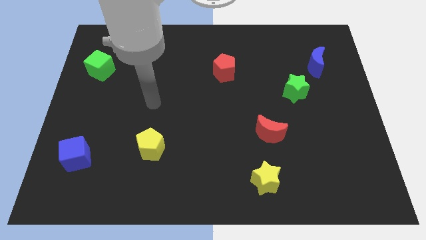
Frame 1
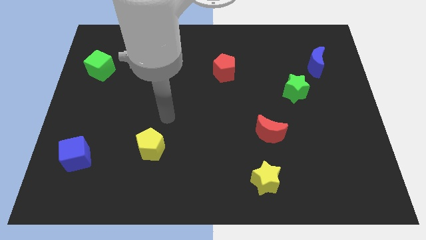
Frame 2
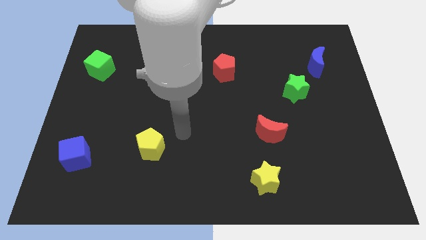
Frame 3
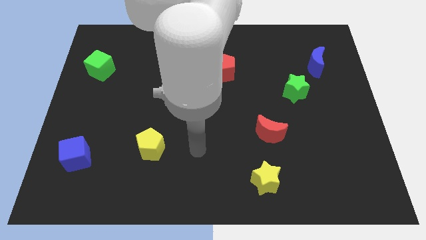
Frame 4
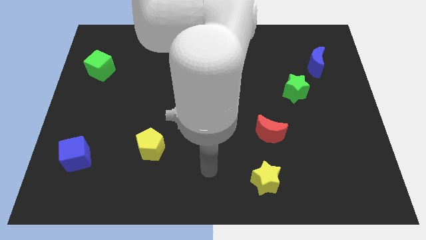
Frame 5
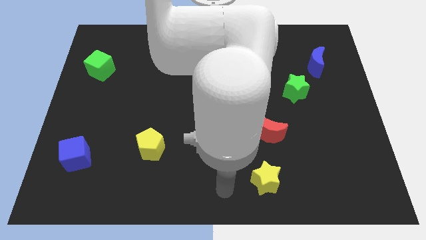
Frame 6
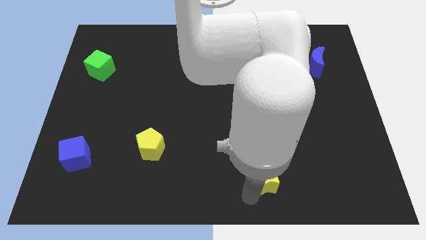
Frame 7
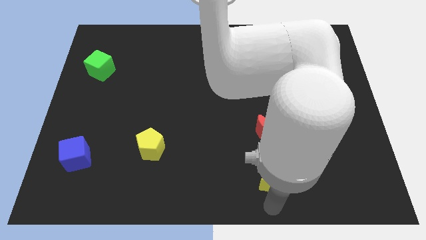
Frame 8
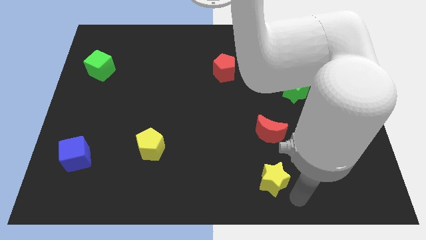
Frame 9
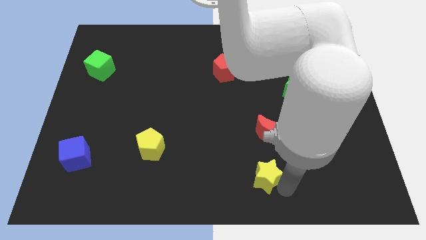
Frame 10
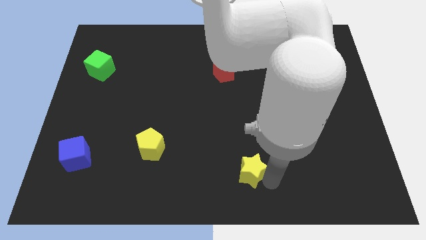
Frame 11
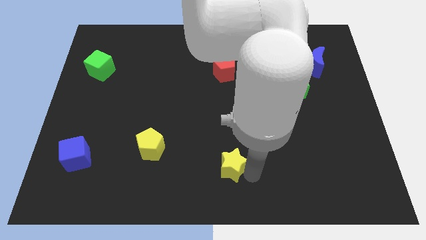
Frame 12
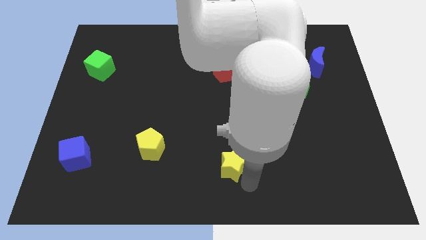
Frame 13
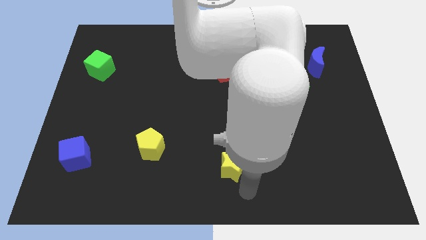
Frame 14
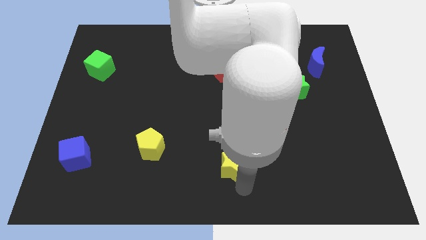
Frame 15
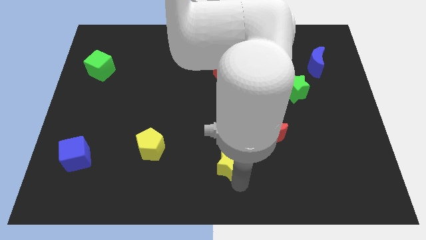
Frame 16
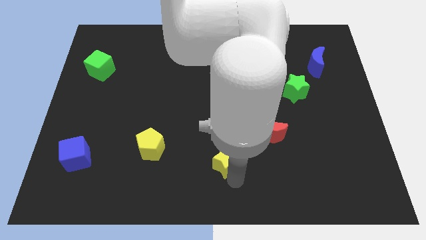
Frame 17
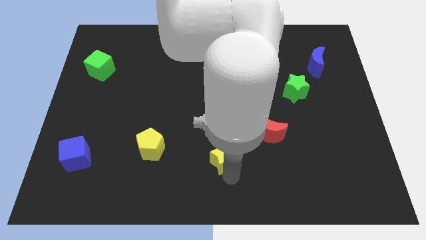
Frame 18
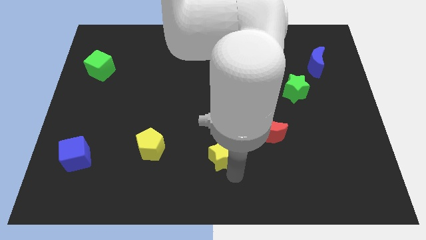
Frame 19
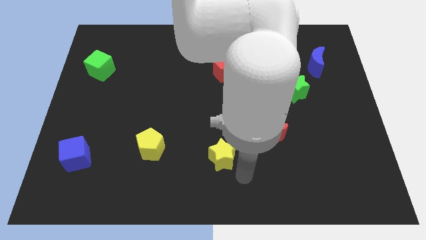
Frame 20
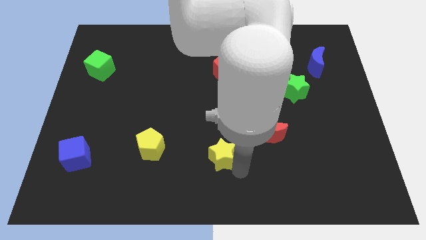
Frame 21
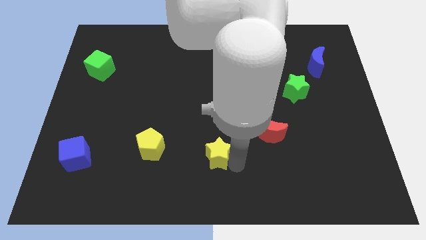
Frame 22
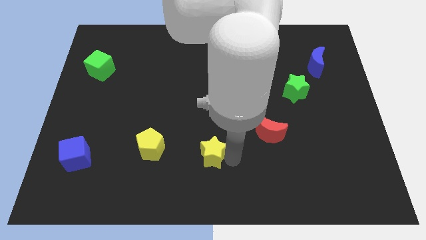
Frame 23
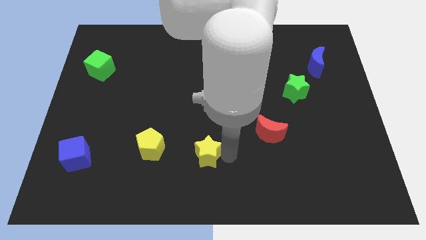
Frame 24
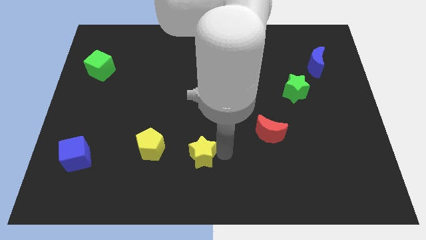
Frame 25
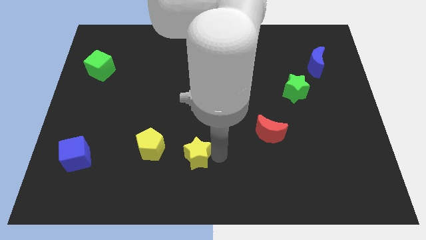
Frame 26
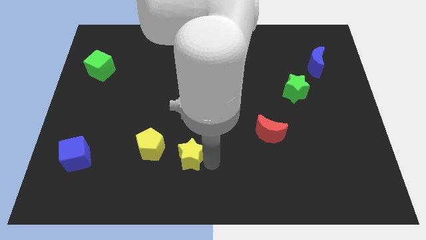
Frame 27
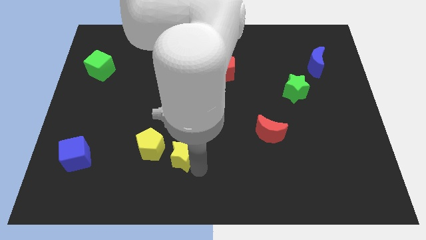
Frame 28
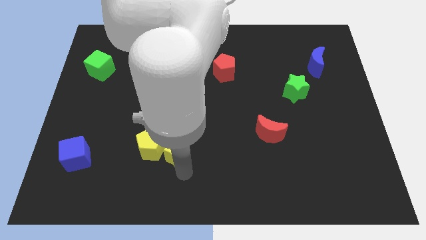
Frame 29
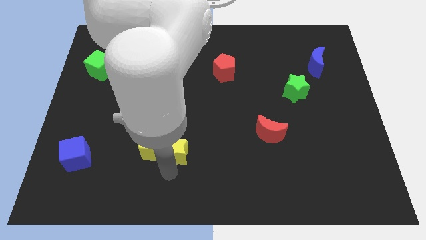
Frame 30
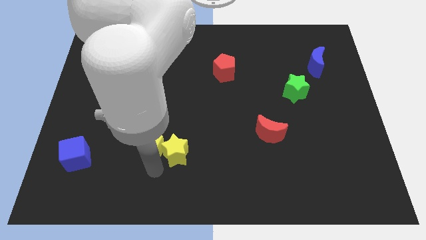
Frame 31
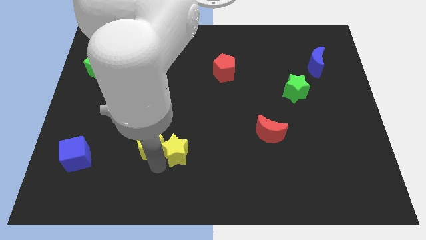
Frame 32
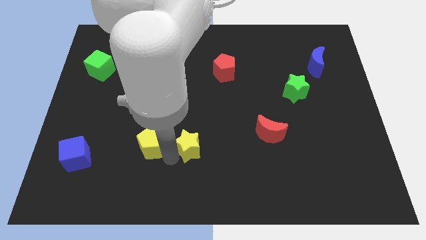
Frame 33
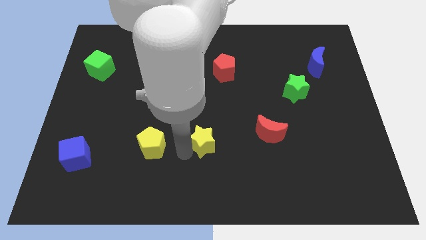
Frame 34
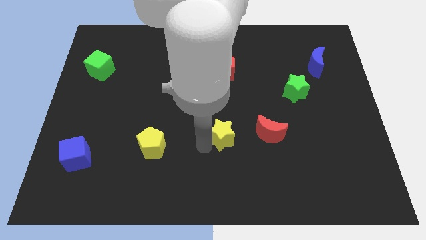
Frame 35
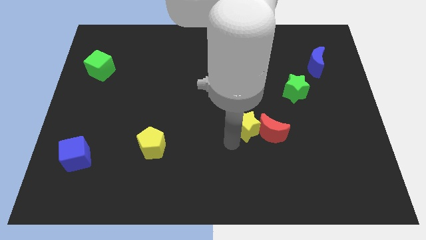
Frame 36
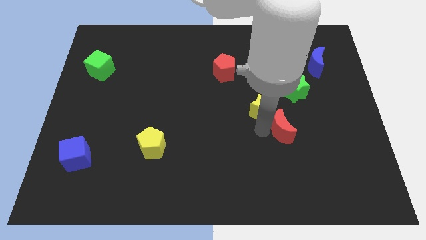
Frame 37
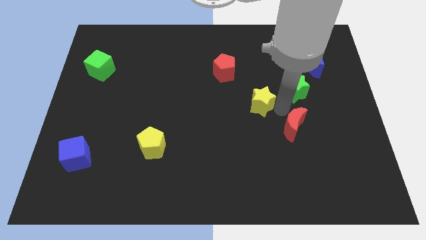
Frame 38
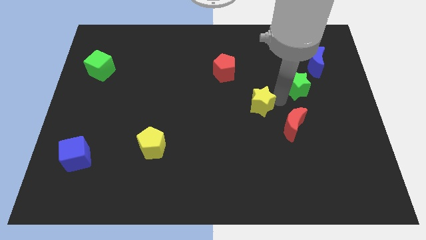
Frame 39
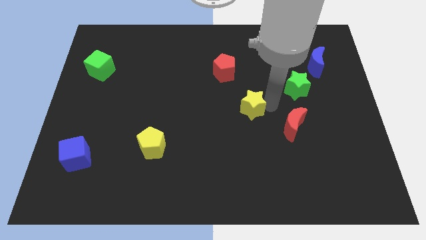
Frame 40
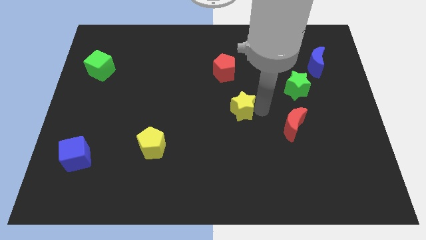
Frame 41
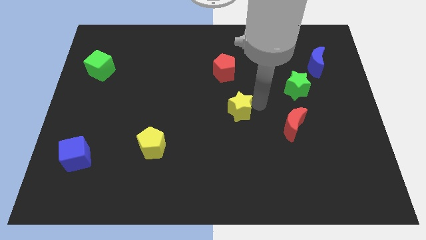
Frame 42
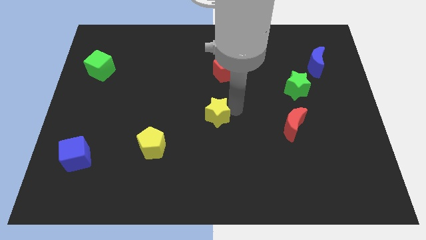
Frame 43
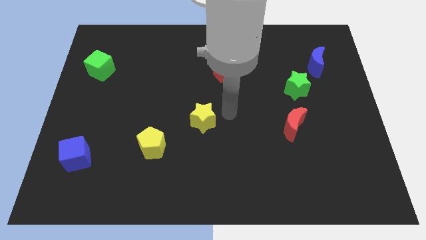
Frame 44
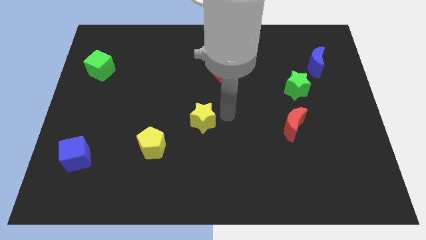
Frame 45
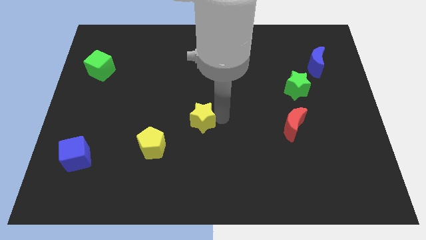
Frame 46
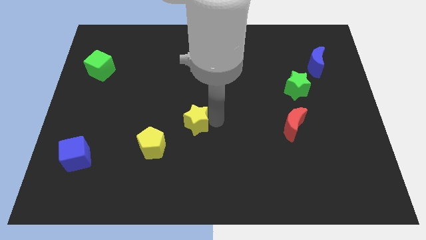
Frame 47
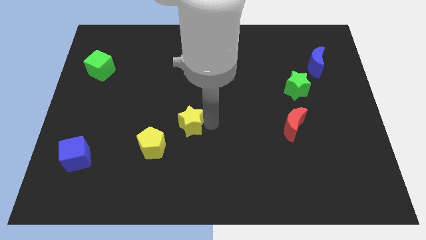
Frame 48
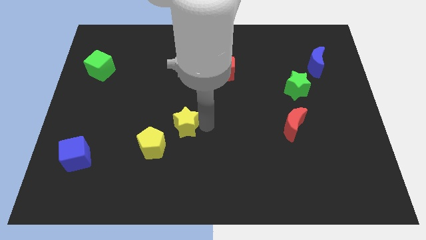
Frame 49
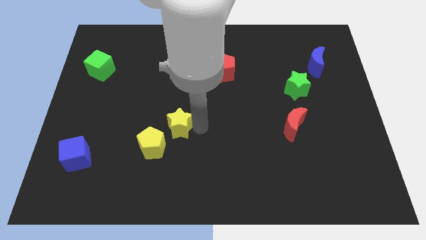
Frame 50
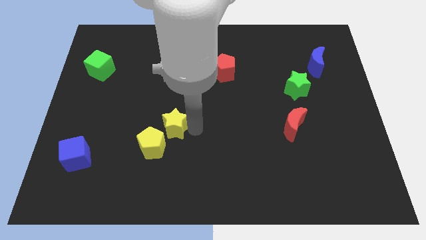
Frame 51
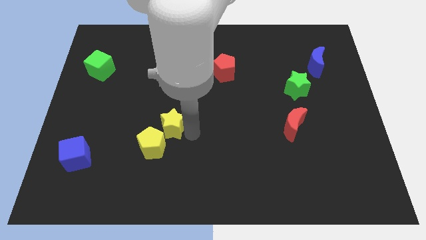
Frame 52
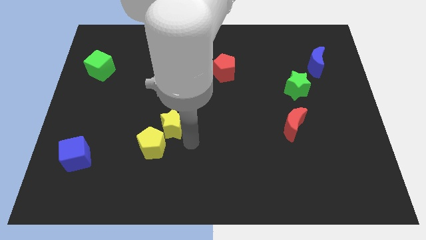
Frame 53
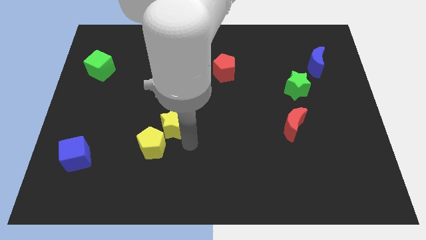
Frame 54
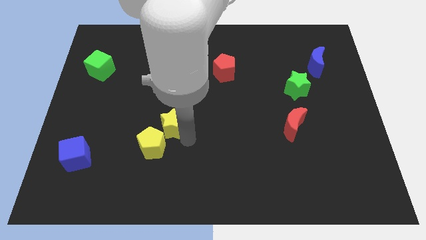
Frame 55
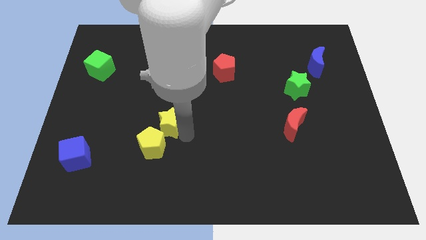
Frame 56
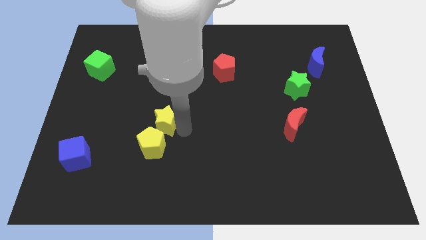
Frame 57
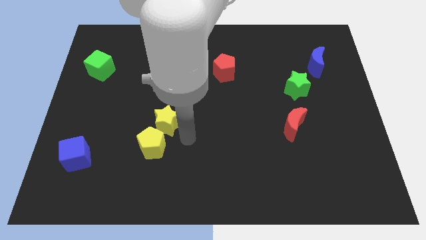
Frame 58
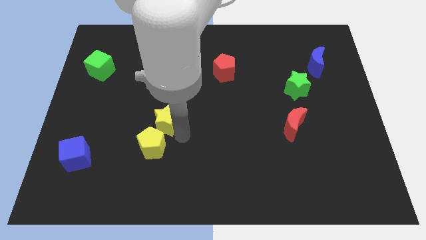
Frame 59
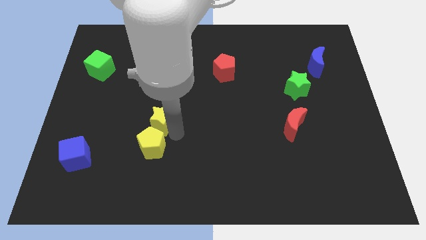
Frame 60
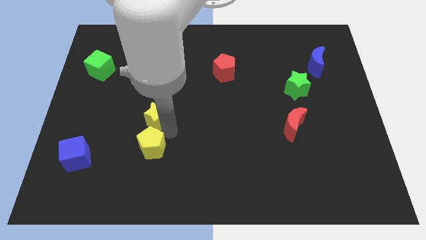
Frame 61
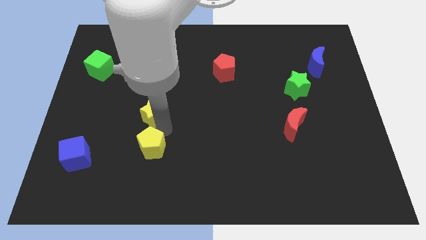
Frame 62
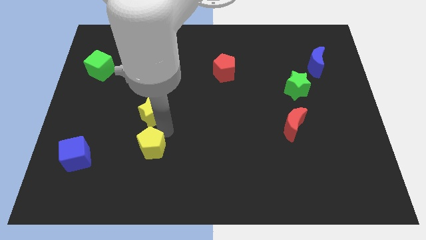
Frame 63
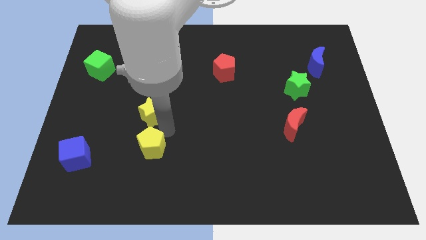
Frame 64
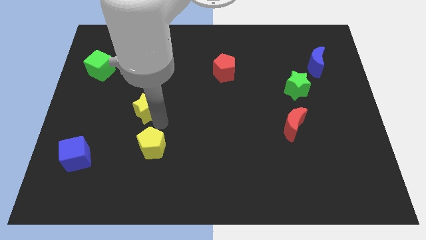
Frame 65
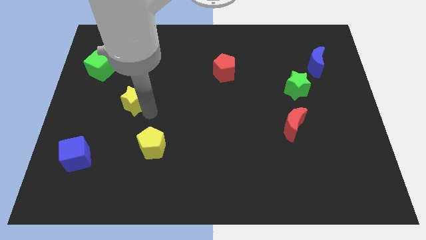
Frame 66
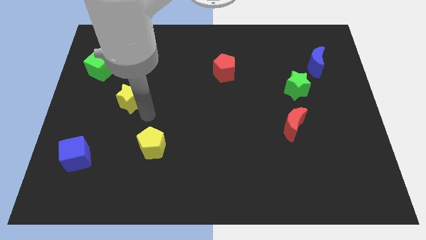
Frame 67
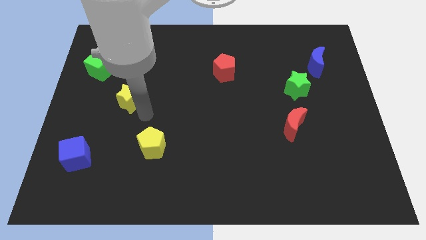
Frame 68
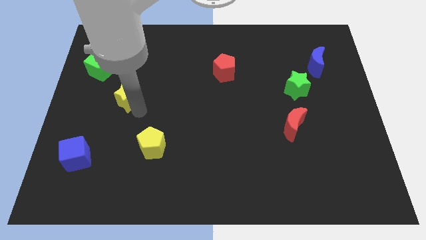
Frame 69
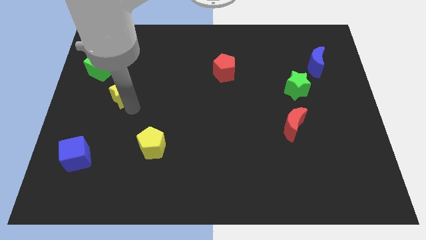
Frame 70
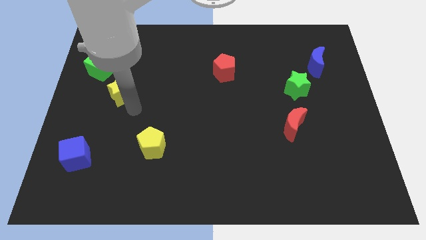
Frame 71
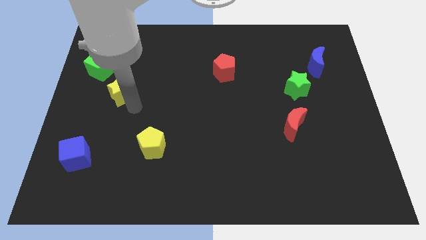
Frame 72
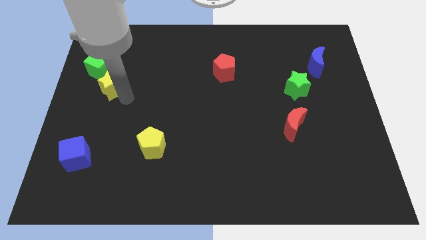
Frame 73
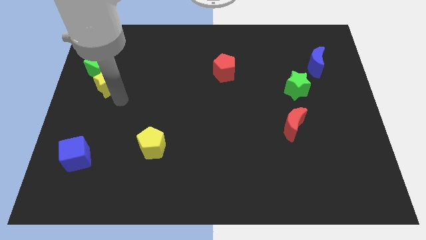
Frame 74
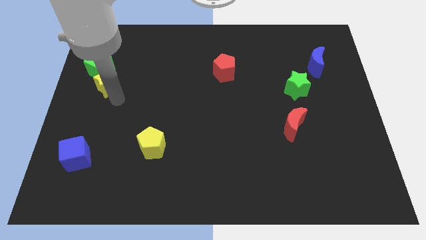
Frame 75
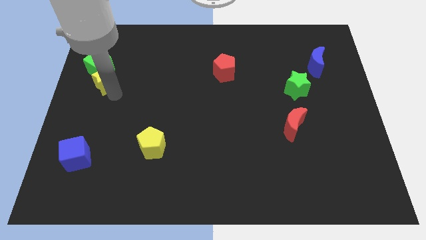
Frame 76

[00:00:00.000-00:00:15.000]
put the yellow star next to the green cube
